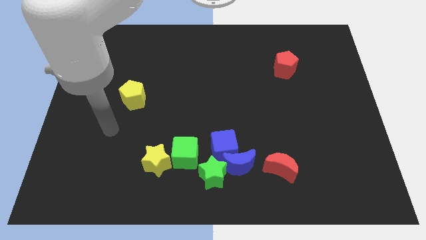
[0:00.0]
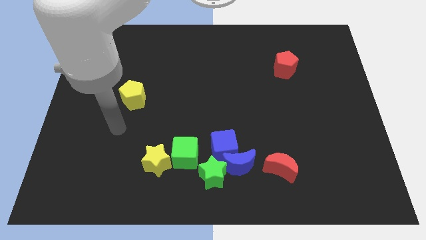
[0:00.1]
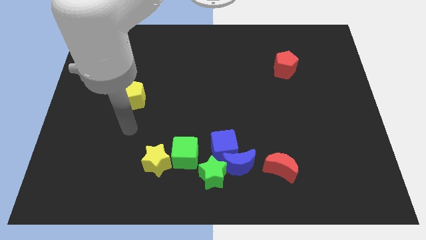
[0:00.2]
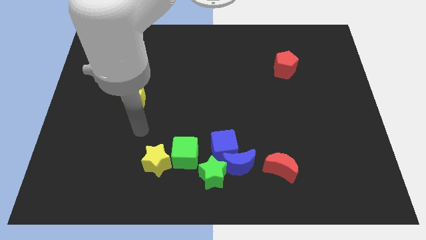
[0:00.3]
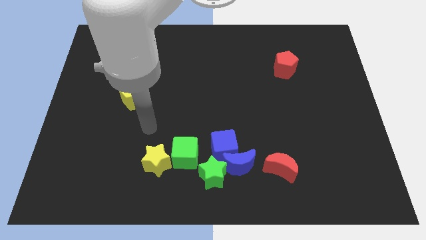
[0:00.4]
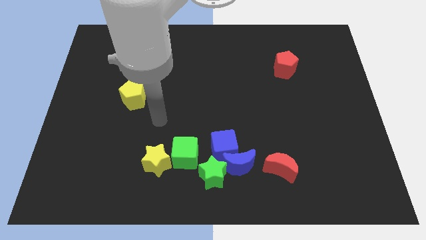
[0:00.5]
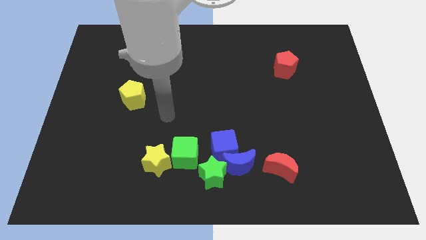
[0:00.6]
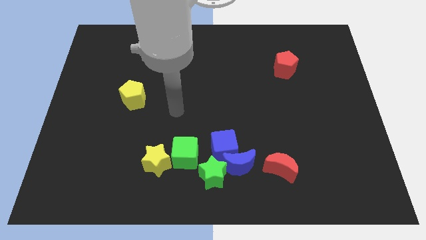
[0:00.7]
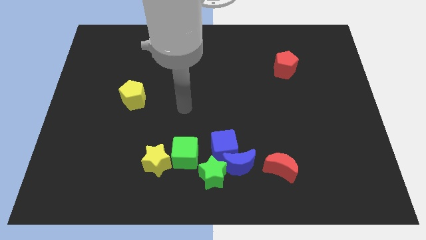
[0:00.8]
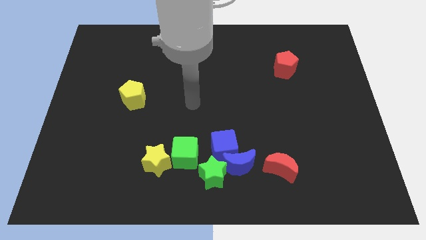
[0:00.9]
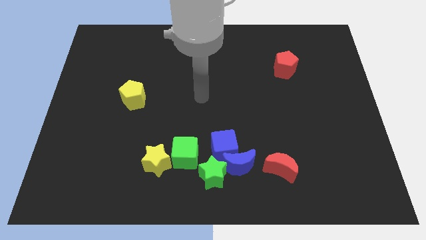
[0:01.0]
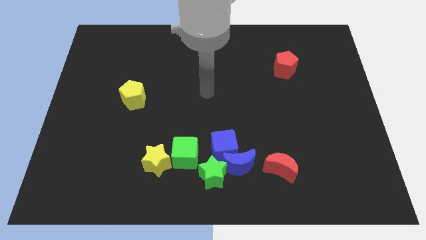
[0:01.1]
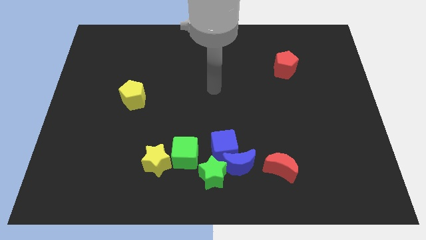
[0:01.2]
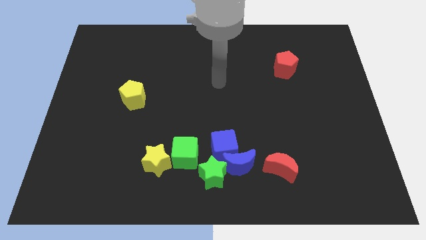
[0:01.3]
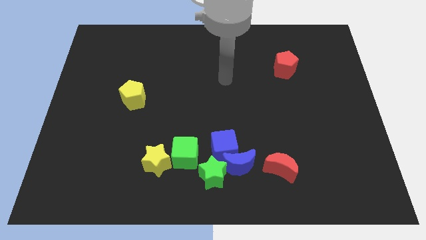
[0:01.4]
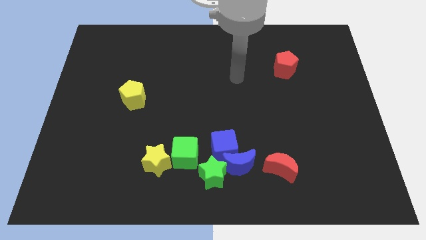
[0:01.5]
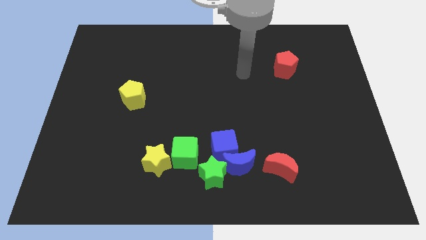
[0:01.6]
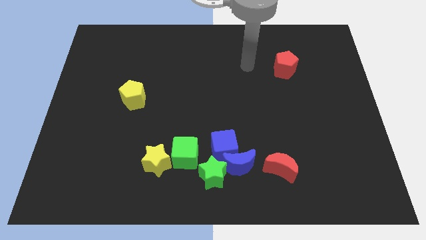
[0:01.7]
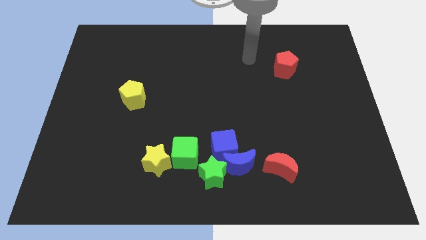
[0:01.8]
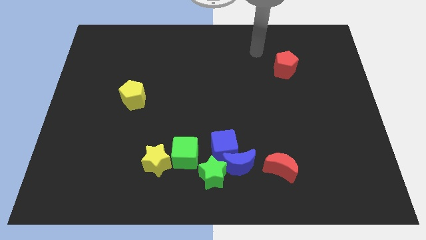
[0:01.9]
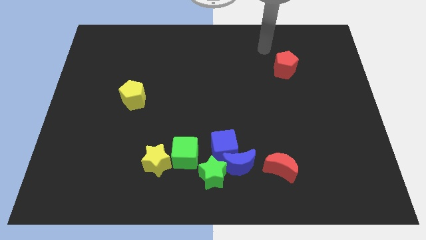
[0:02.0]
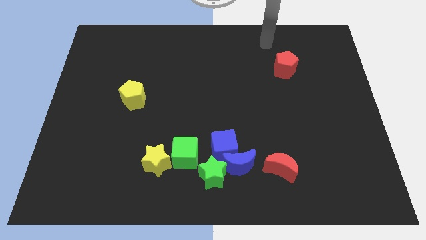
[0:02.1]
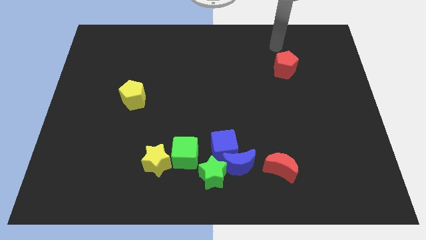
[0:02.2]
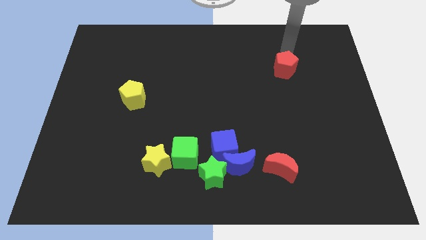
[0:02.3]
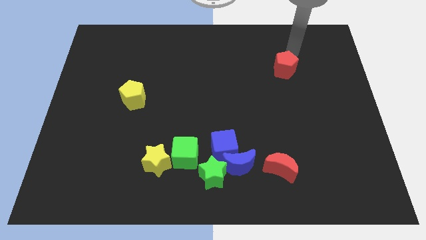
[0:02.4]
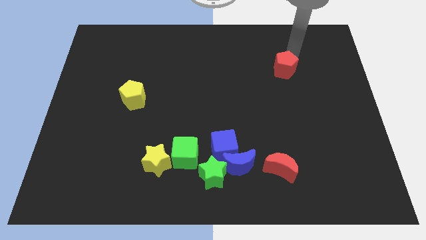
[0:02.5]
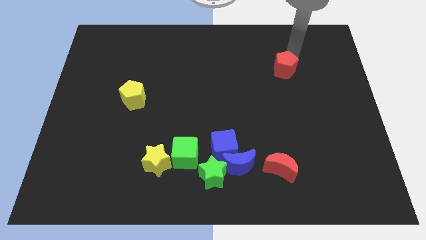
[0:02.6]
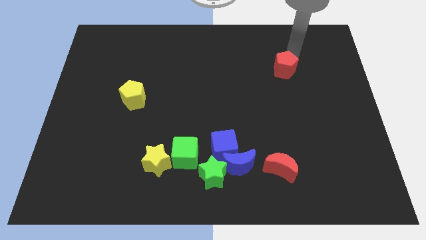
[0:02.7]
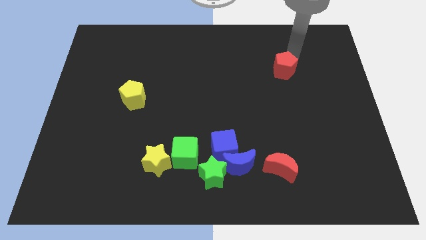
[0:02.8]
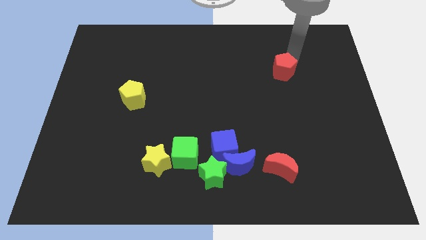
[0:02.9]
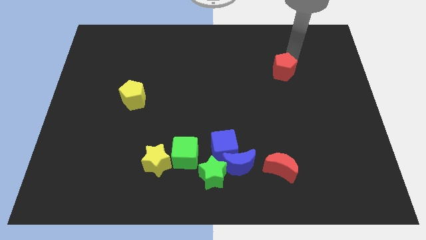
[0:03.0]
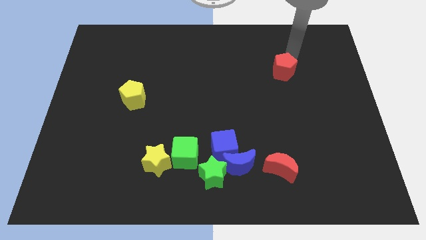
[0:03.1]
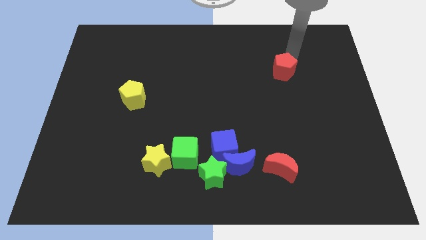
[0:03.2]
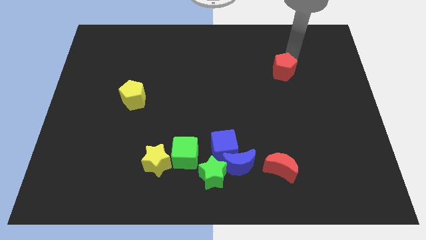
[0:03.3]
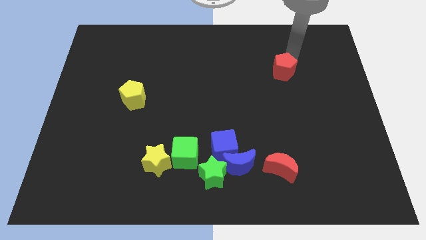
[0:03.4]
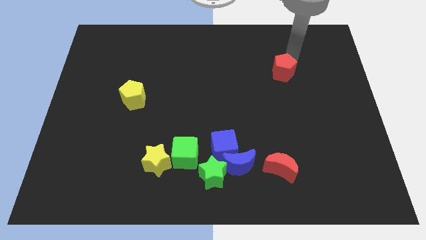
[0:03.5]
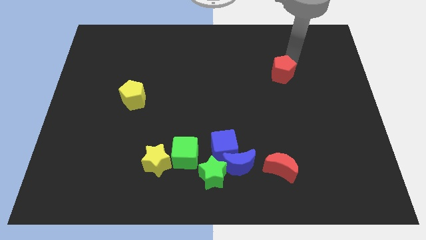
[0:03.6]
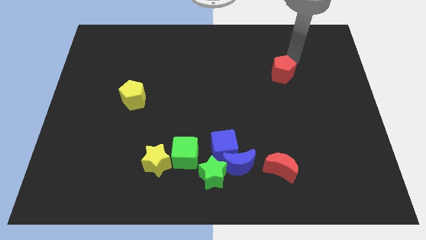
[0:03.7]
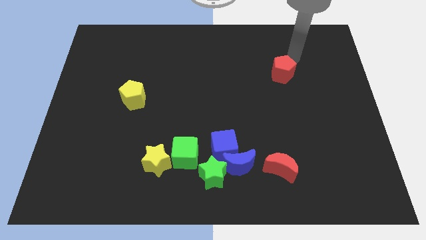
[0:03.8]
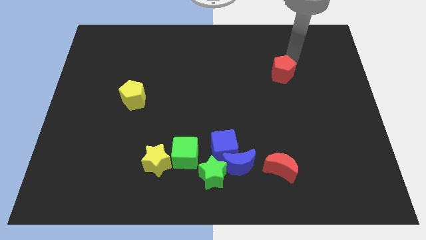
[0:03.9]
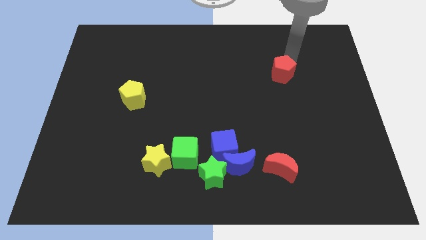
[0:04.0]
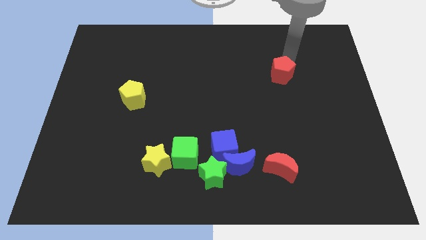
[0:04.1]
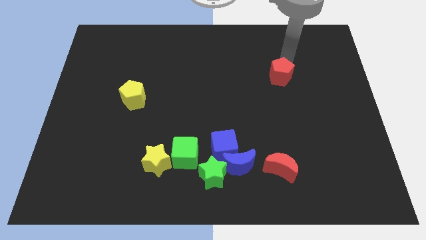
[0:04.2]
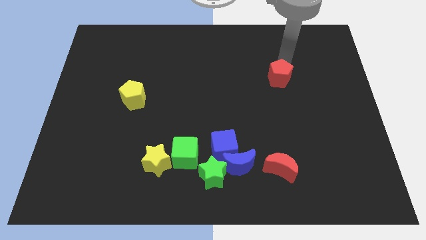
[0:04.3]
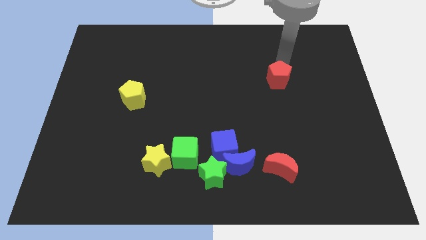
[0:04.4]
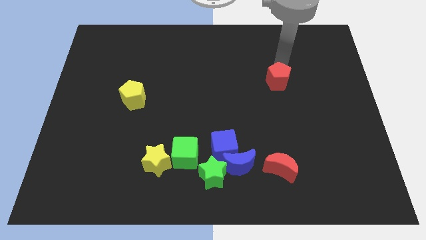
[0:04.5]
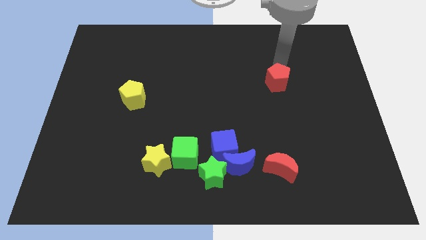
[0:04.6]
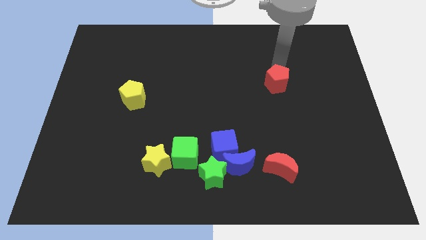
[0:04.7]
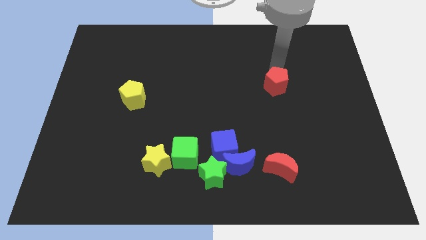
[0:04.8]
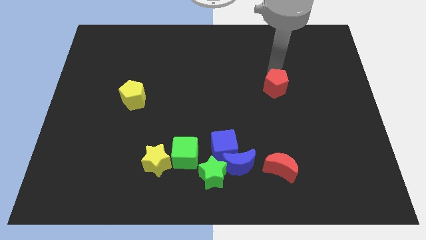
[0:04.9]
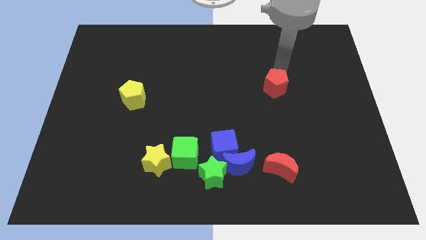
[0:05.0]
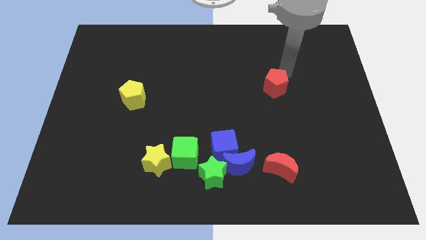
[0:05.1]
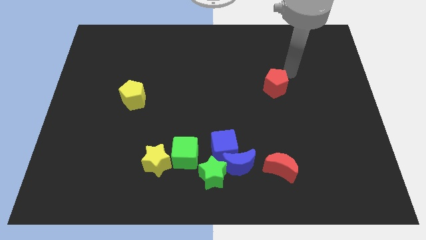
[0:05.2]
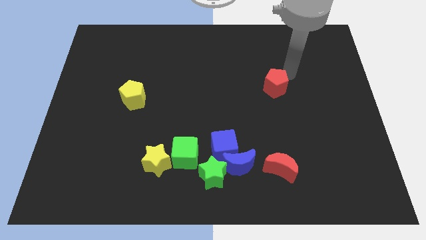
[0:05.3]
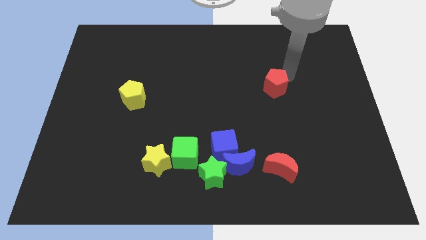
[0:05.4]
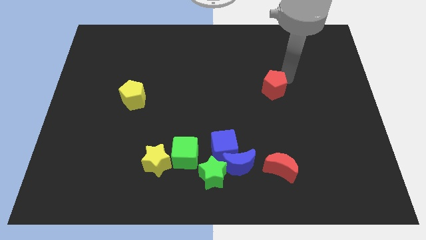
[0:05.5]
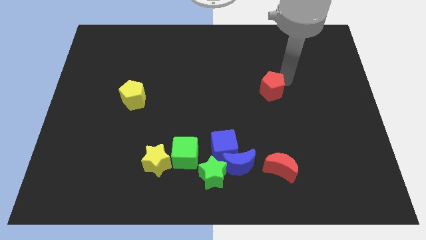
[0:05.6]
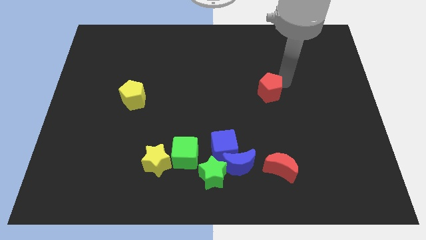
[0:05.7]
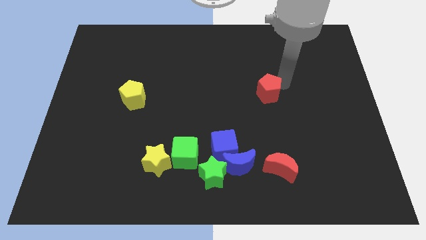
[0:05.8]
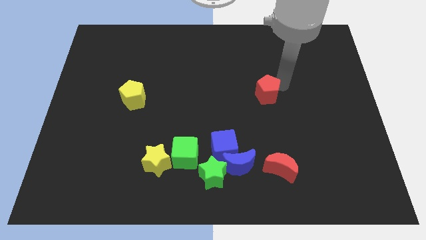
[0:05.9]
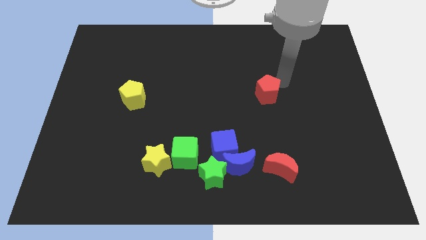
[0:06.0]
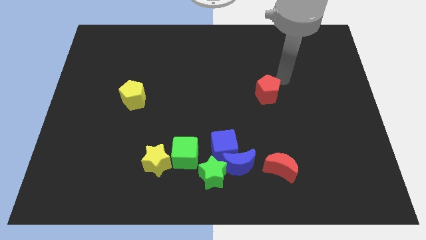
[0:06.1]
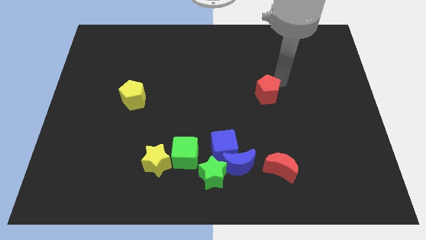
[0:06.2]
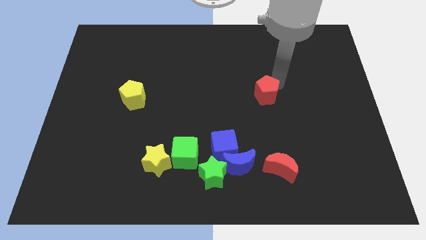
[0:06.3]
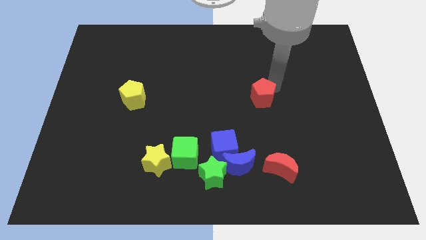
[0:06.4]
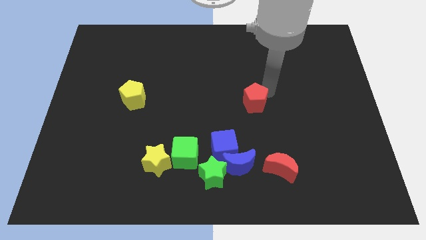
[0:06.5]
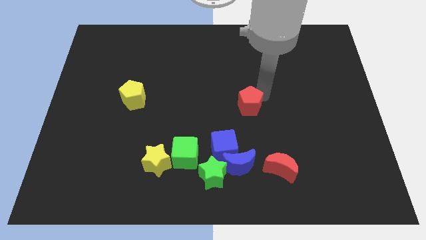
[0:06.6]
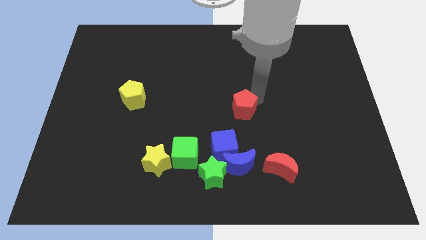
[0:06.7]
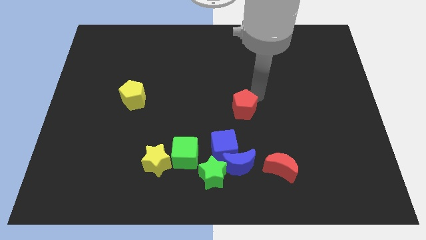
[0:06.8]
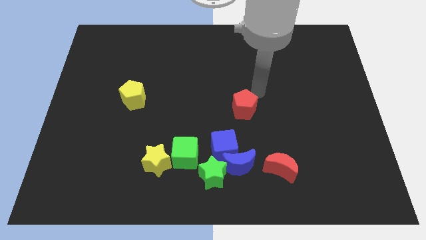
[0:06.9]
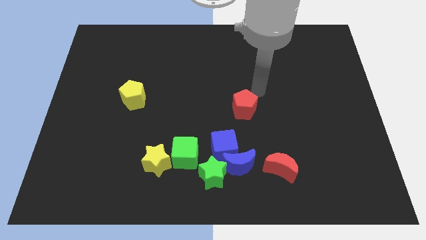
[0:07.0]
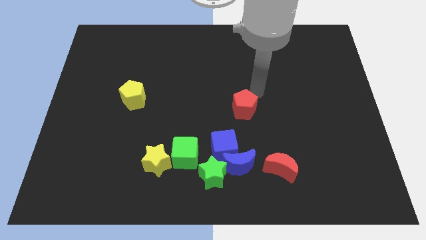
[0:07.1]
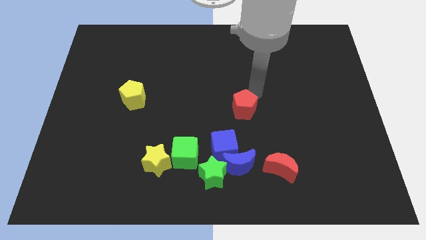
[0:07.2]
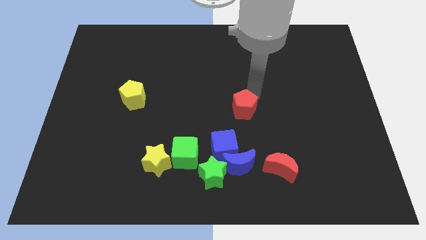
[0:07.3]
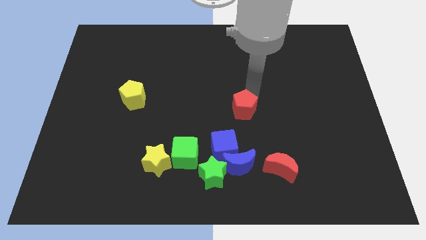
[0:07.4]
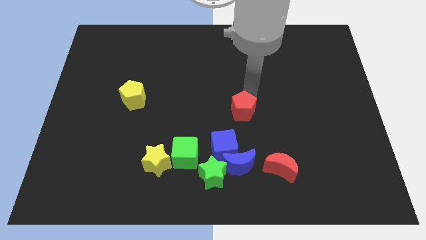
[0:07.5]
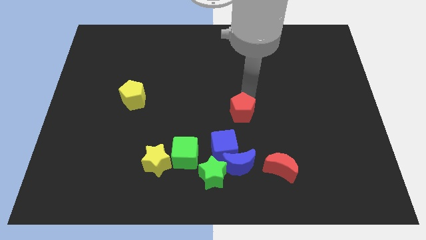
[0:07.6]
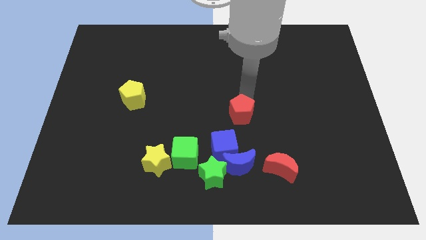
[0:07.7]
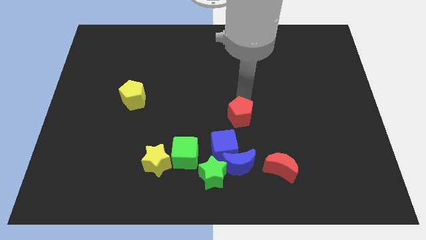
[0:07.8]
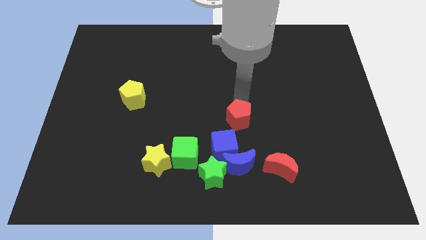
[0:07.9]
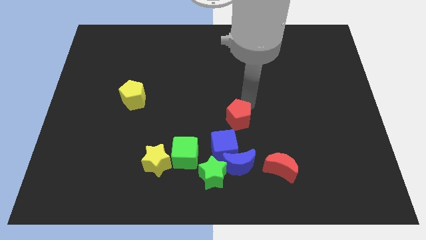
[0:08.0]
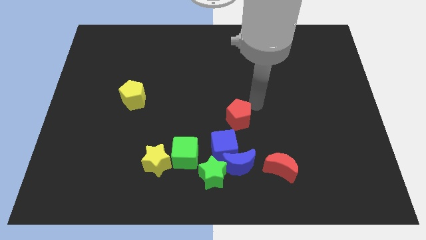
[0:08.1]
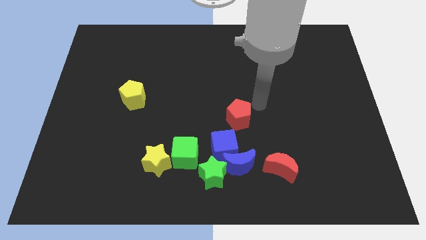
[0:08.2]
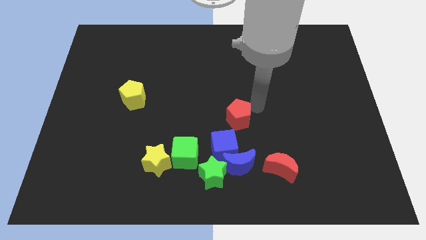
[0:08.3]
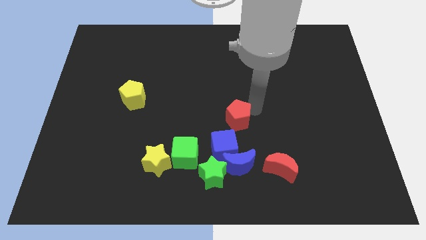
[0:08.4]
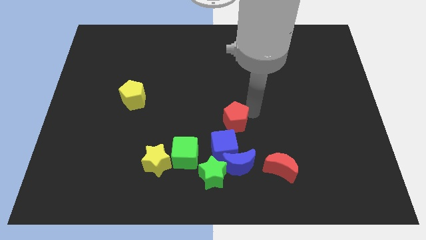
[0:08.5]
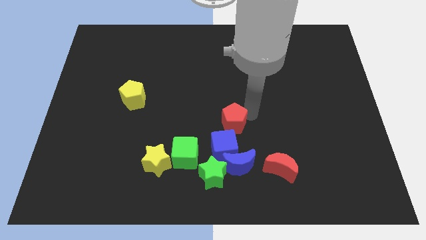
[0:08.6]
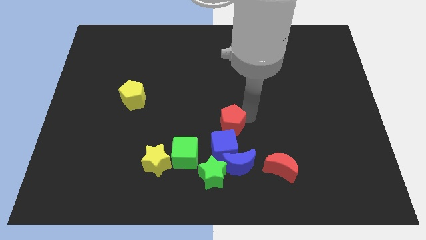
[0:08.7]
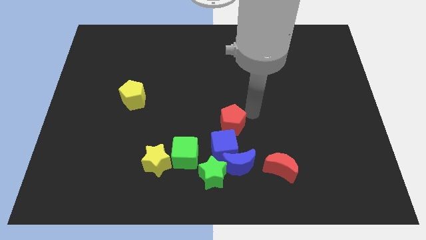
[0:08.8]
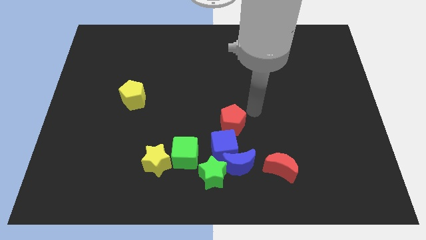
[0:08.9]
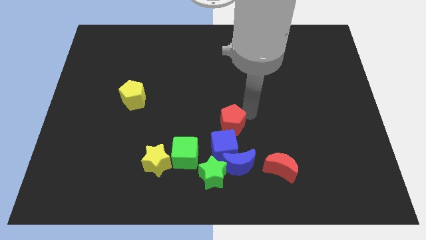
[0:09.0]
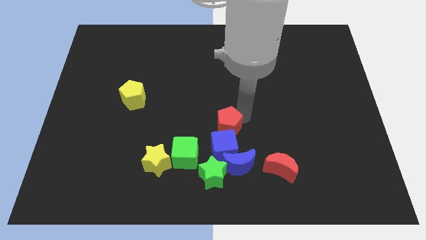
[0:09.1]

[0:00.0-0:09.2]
slide the red pentagon to the top right side of the green cube
